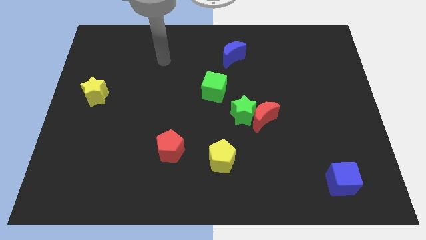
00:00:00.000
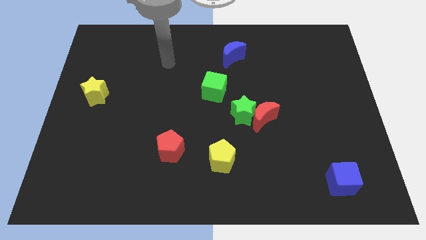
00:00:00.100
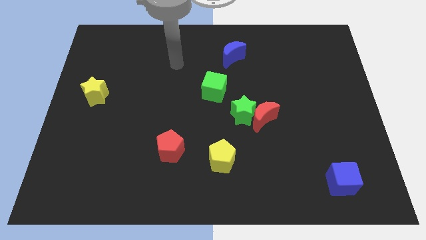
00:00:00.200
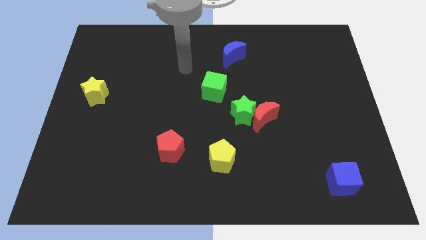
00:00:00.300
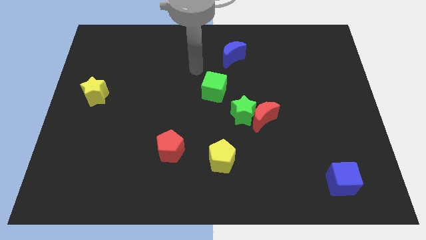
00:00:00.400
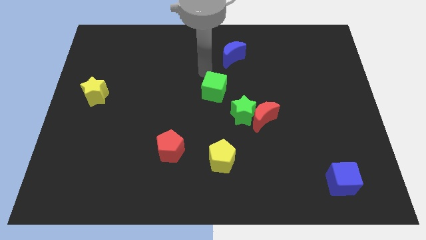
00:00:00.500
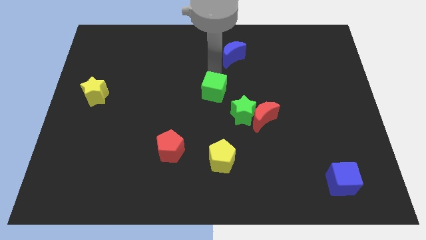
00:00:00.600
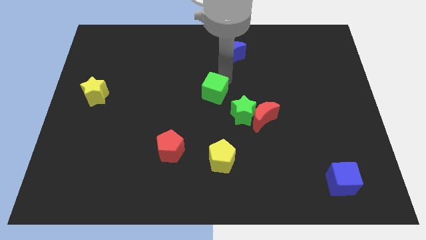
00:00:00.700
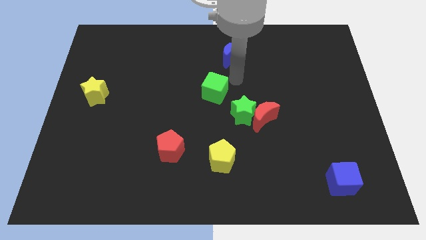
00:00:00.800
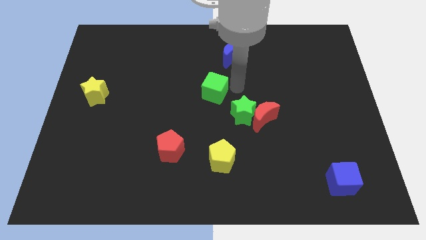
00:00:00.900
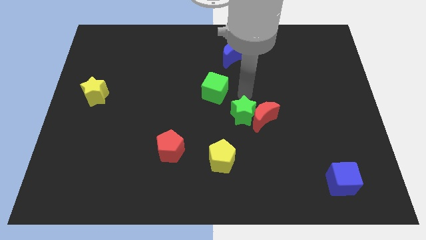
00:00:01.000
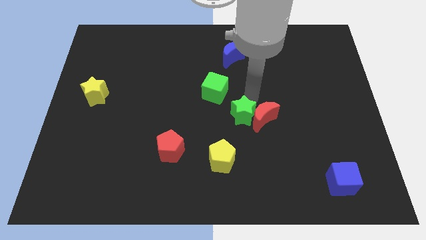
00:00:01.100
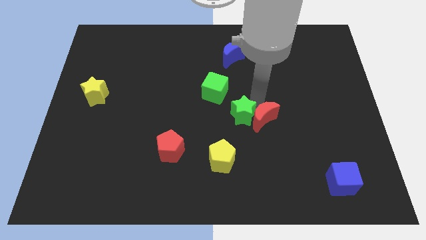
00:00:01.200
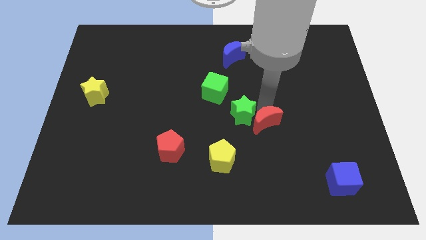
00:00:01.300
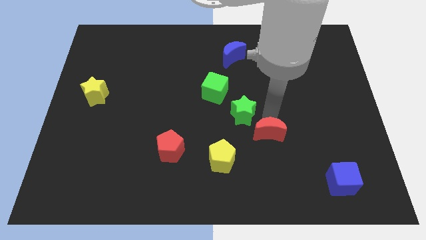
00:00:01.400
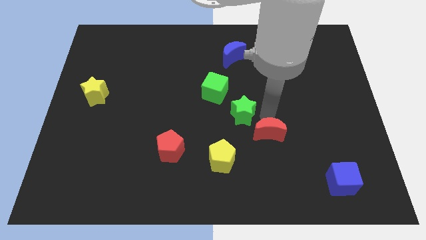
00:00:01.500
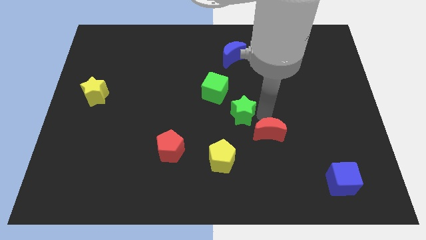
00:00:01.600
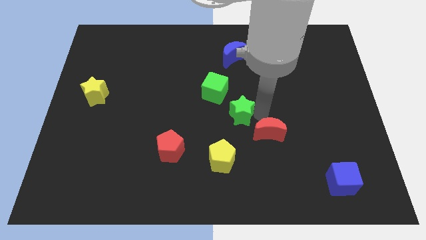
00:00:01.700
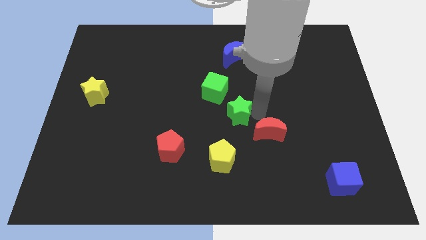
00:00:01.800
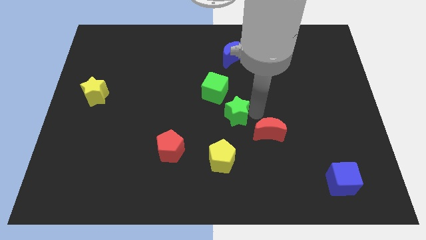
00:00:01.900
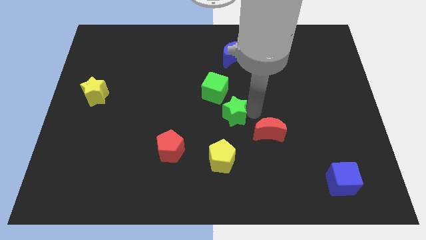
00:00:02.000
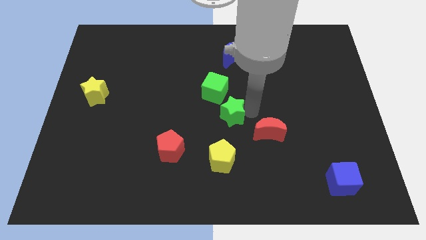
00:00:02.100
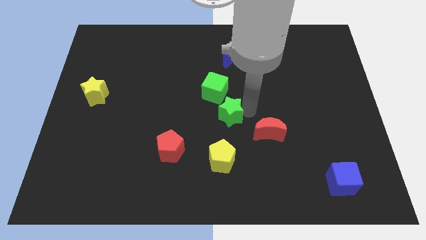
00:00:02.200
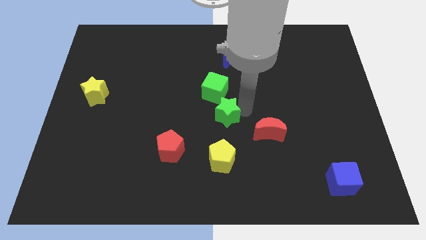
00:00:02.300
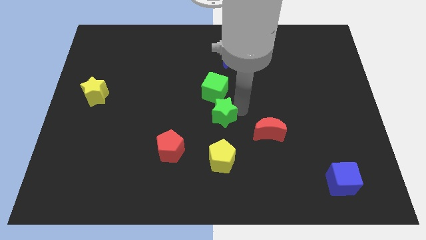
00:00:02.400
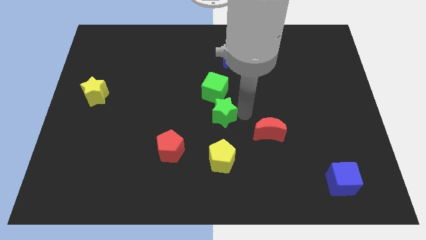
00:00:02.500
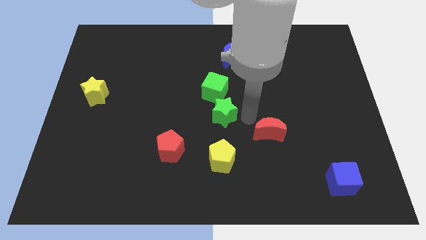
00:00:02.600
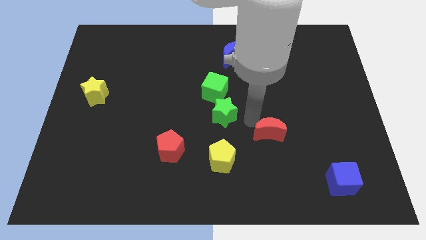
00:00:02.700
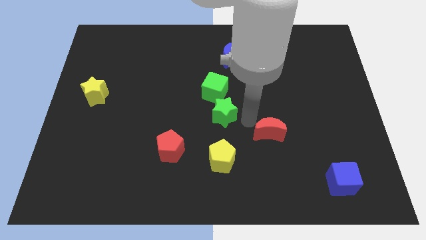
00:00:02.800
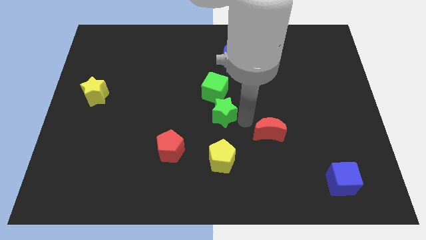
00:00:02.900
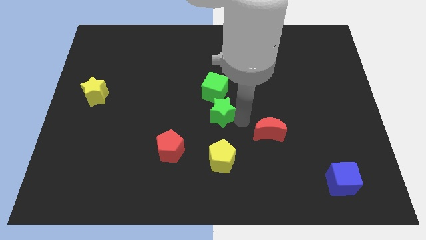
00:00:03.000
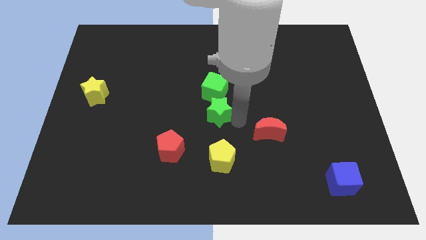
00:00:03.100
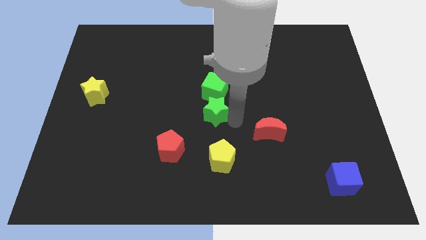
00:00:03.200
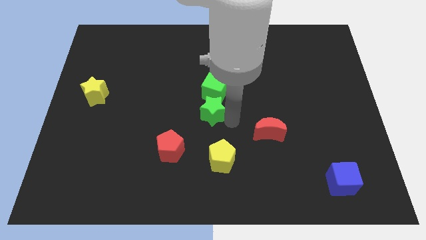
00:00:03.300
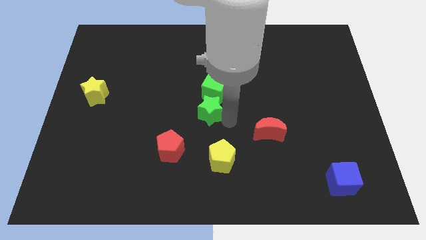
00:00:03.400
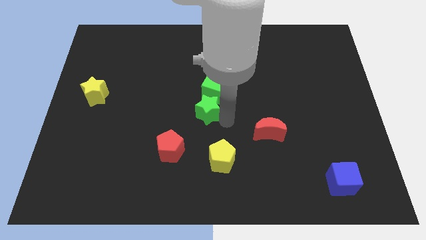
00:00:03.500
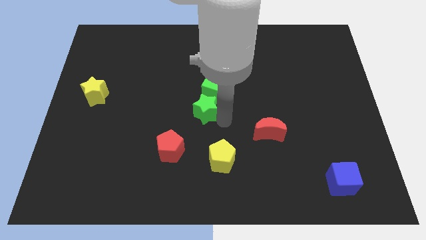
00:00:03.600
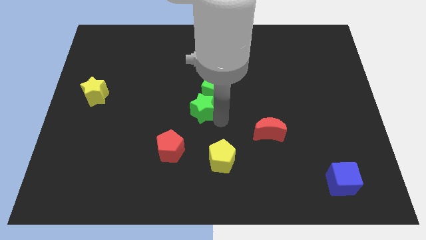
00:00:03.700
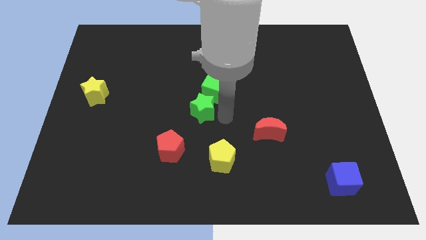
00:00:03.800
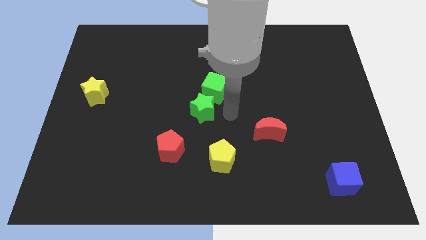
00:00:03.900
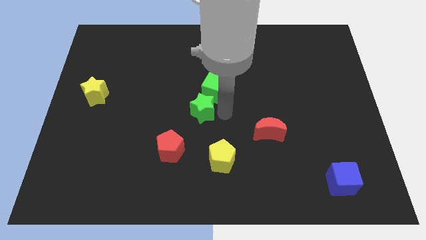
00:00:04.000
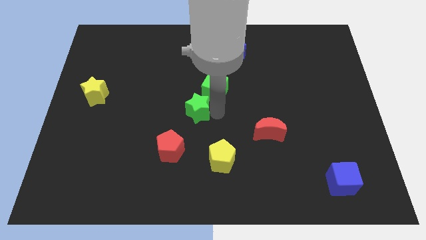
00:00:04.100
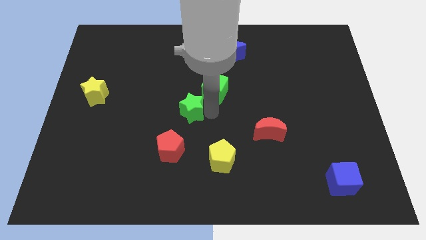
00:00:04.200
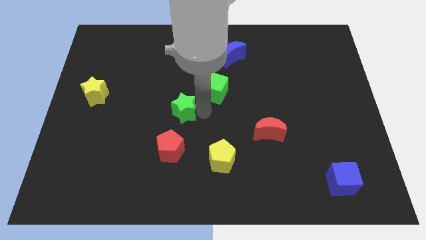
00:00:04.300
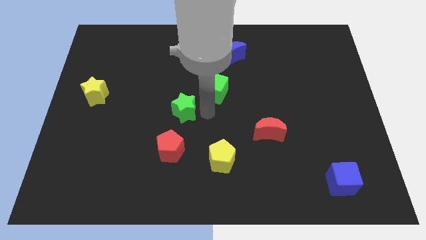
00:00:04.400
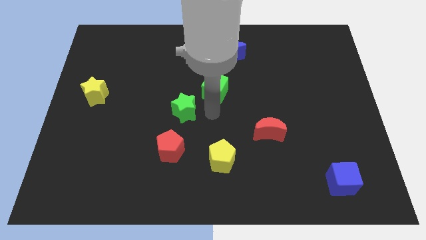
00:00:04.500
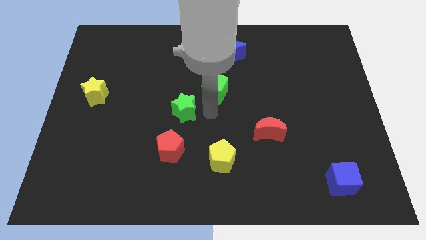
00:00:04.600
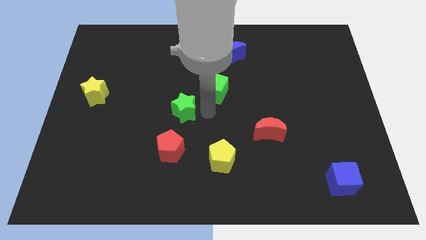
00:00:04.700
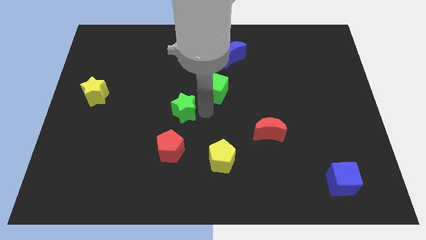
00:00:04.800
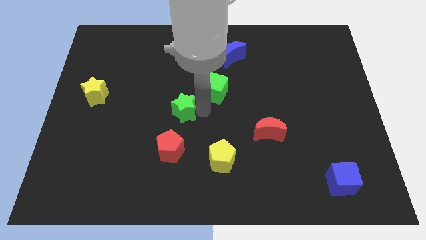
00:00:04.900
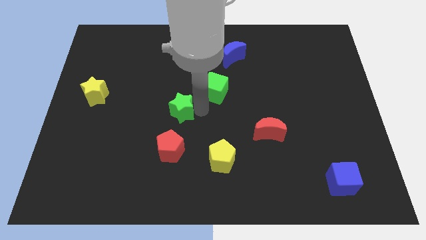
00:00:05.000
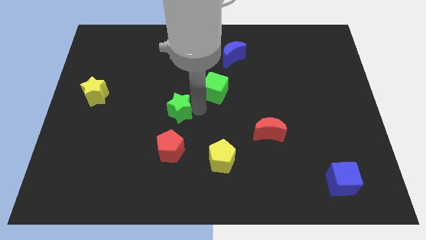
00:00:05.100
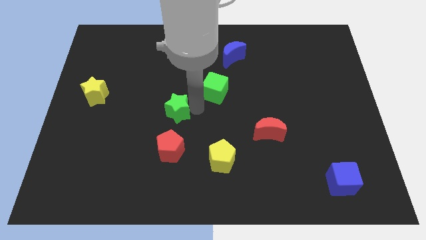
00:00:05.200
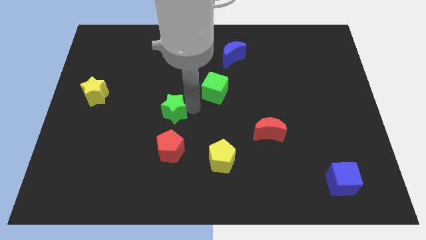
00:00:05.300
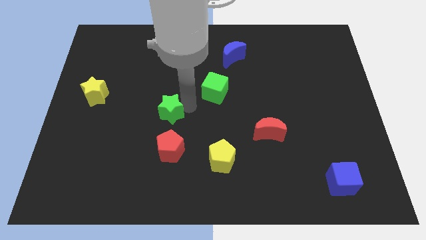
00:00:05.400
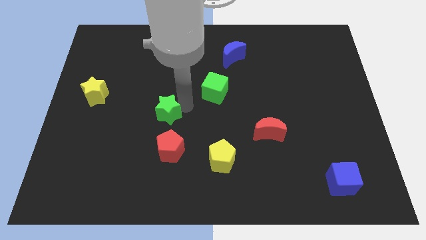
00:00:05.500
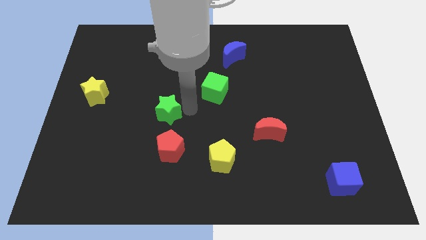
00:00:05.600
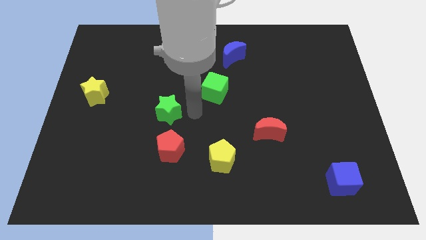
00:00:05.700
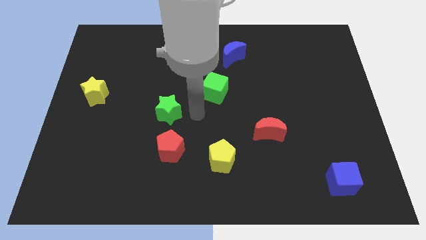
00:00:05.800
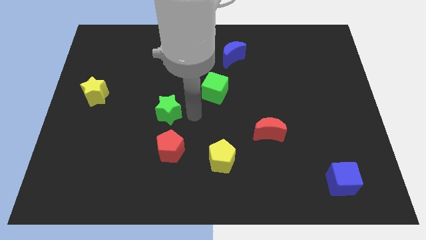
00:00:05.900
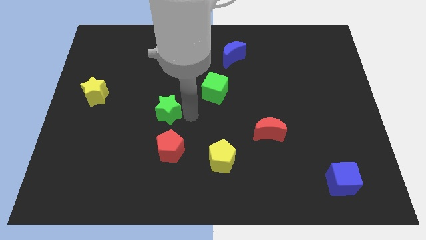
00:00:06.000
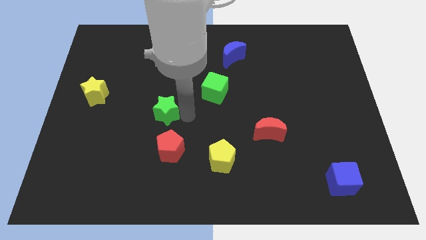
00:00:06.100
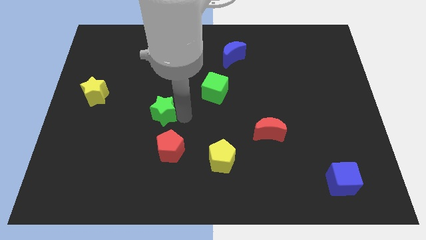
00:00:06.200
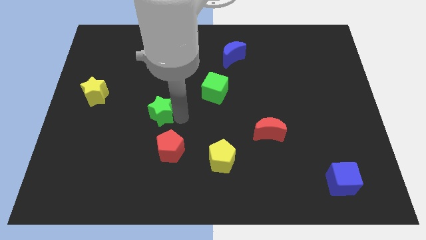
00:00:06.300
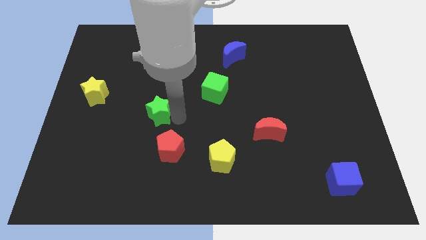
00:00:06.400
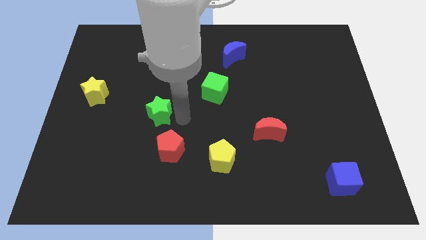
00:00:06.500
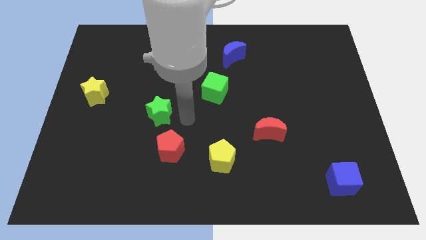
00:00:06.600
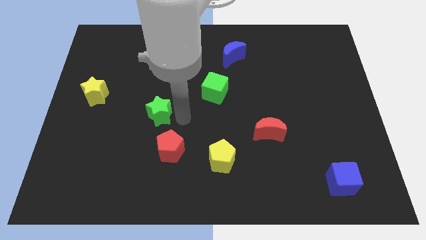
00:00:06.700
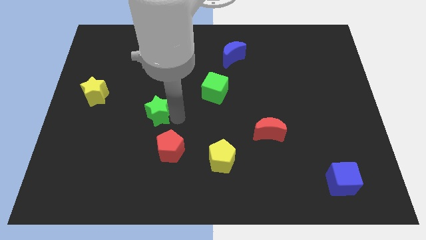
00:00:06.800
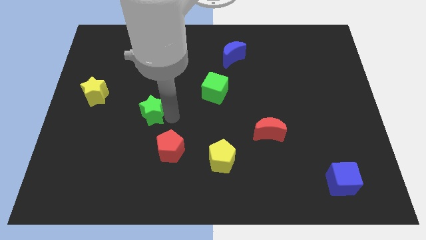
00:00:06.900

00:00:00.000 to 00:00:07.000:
move the green star to the left

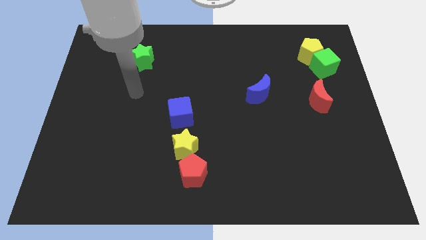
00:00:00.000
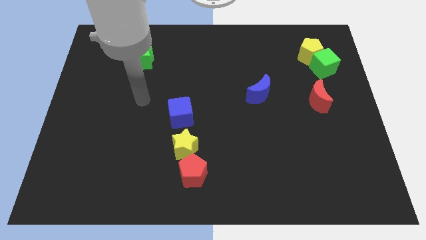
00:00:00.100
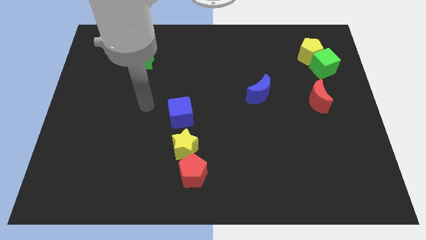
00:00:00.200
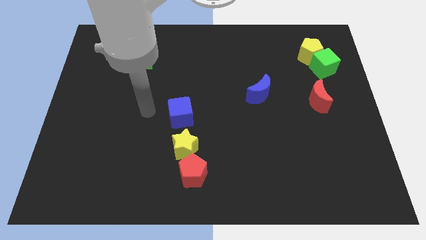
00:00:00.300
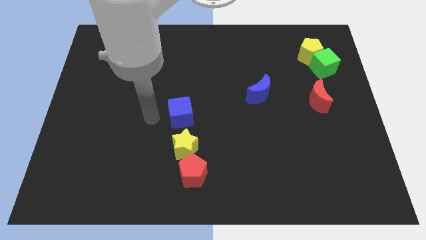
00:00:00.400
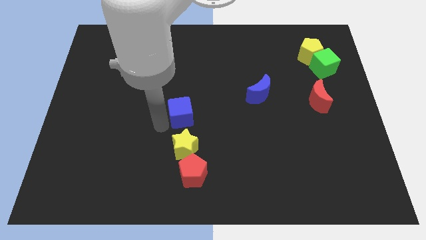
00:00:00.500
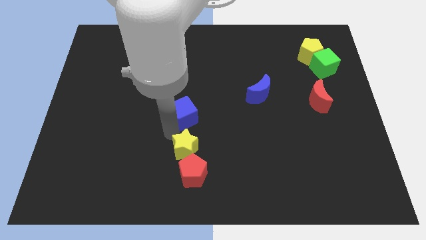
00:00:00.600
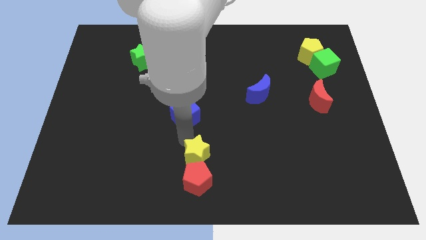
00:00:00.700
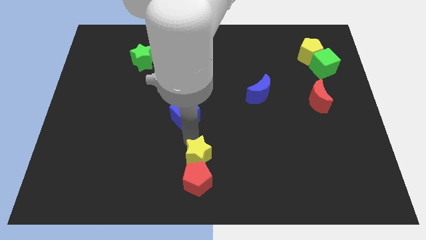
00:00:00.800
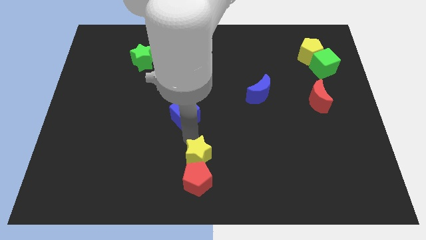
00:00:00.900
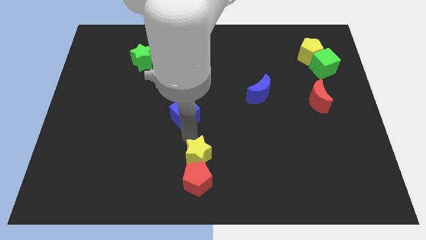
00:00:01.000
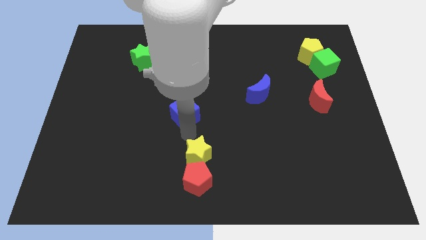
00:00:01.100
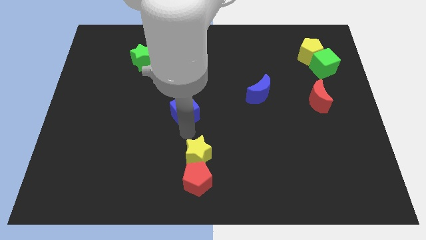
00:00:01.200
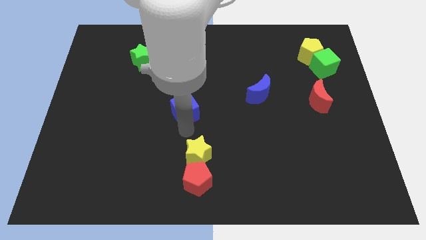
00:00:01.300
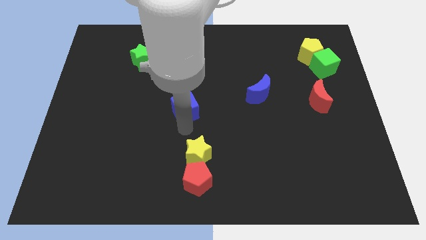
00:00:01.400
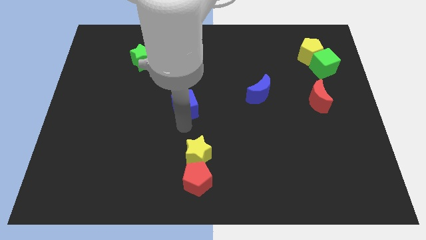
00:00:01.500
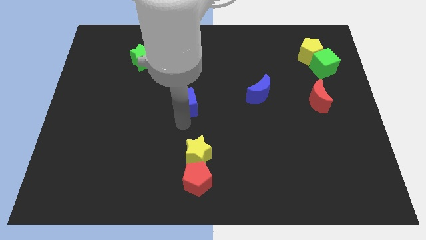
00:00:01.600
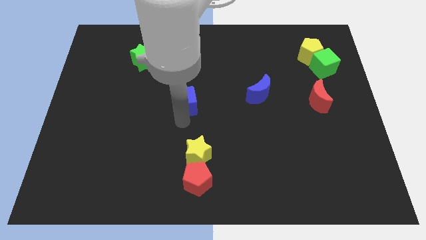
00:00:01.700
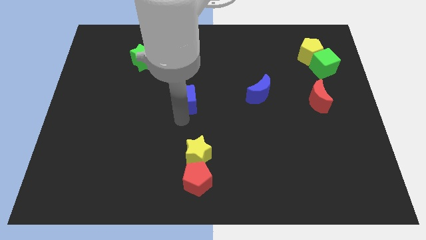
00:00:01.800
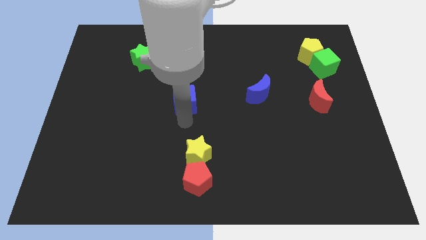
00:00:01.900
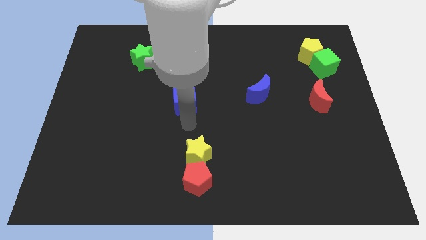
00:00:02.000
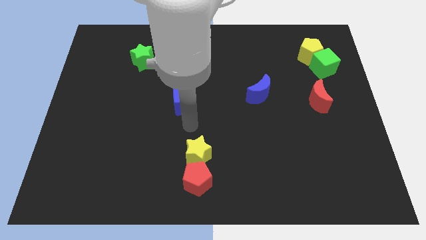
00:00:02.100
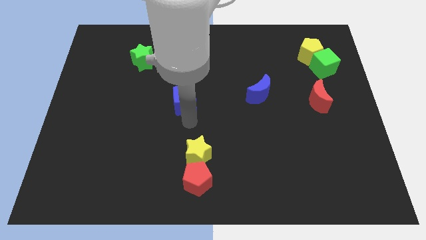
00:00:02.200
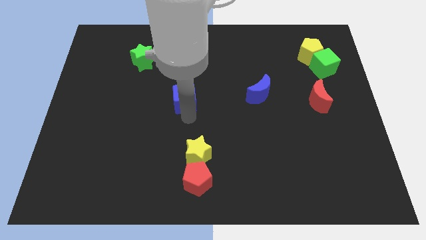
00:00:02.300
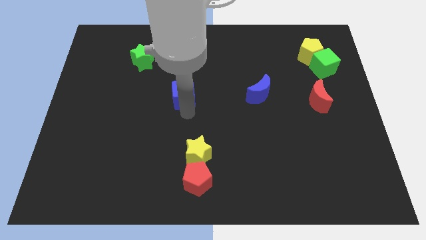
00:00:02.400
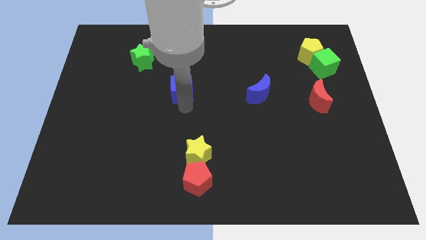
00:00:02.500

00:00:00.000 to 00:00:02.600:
slightly slide the blue cube upwards
